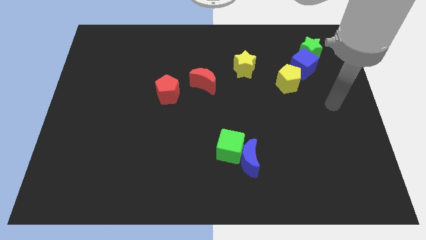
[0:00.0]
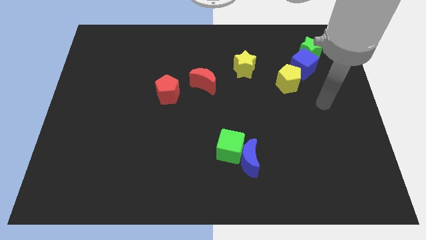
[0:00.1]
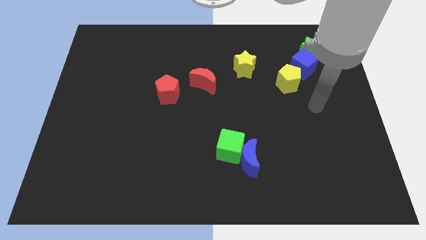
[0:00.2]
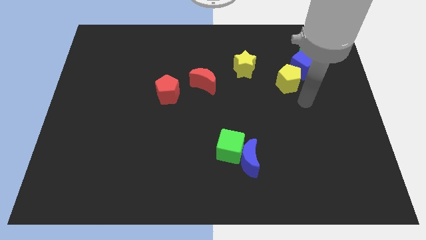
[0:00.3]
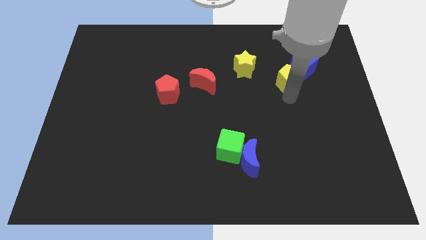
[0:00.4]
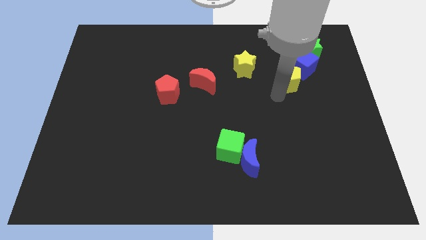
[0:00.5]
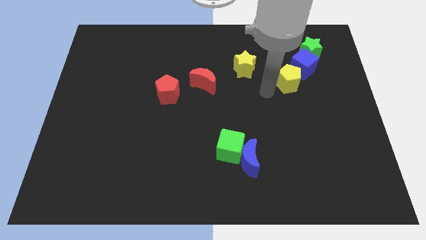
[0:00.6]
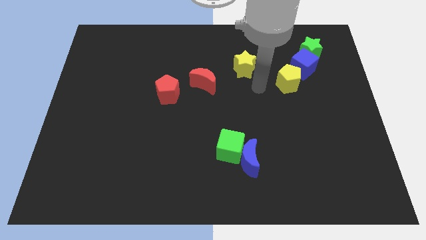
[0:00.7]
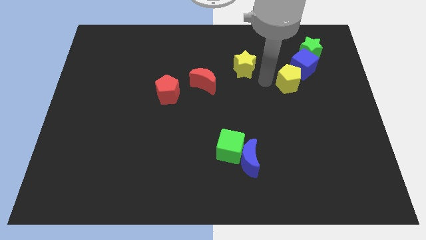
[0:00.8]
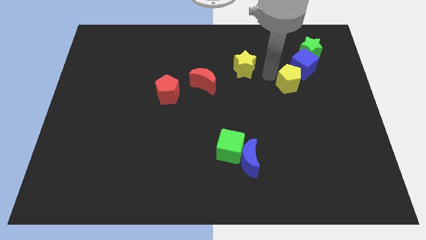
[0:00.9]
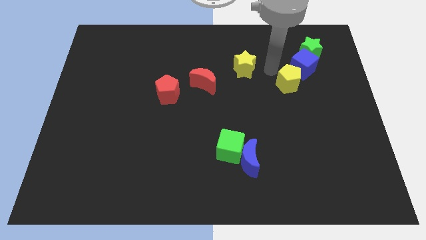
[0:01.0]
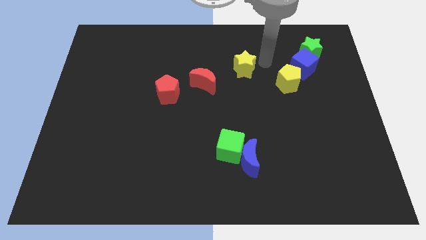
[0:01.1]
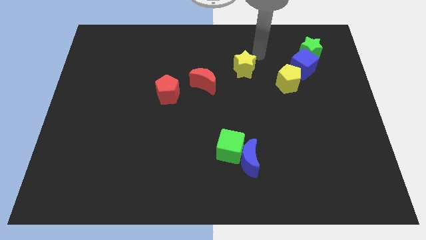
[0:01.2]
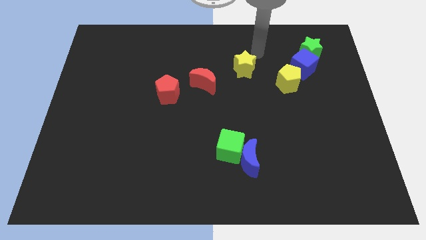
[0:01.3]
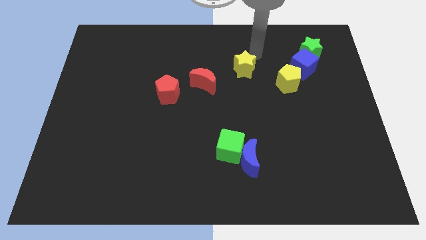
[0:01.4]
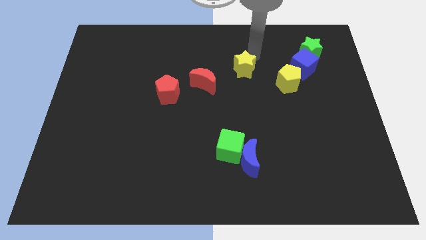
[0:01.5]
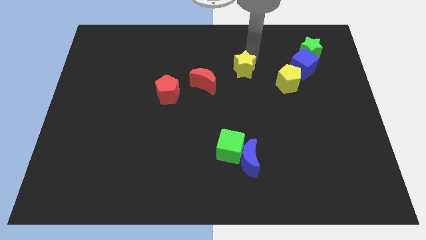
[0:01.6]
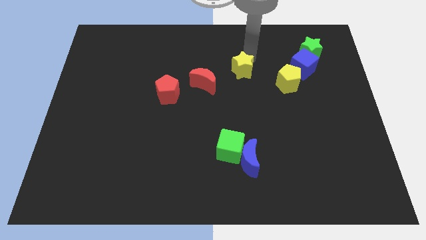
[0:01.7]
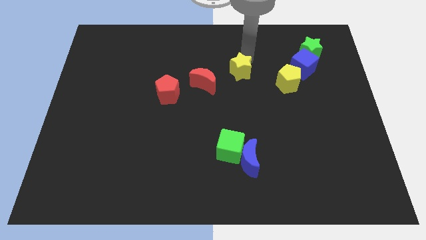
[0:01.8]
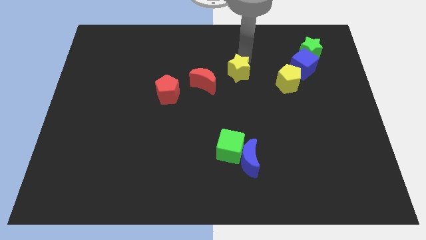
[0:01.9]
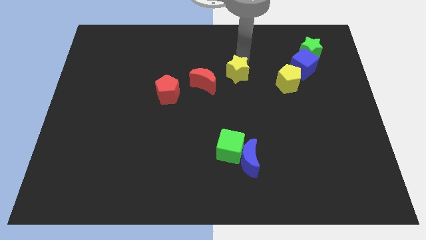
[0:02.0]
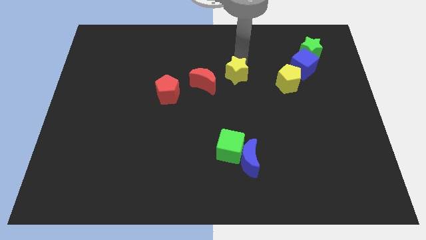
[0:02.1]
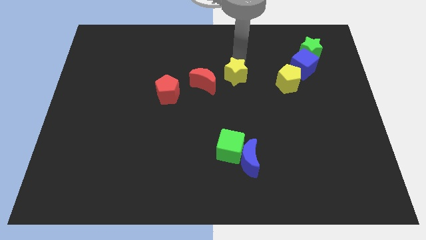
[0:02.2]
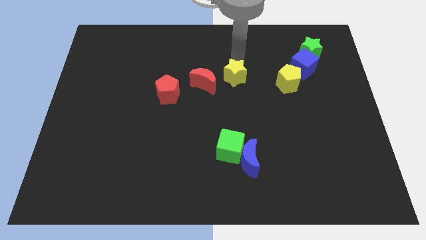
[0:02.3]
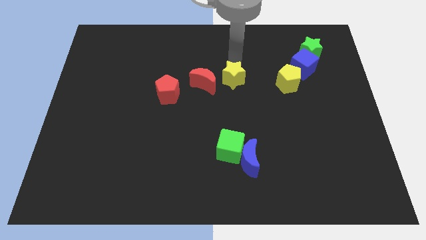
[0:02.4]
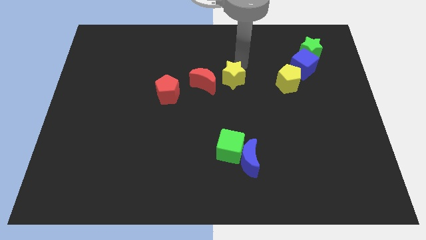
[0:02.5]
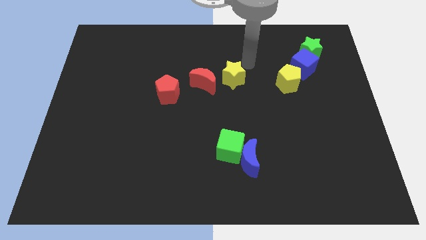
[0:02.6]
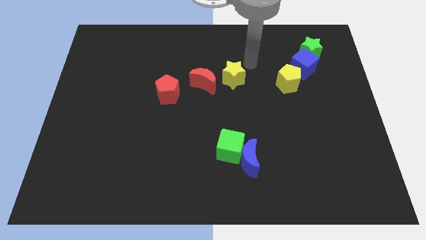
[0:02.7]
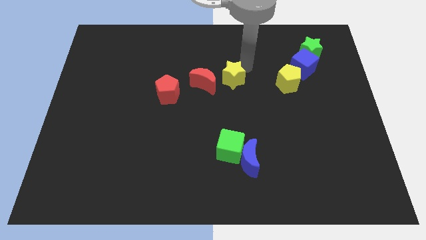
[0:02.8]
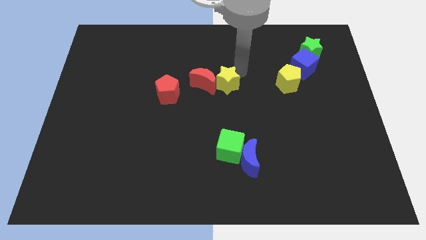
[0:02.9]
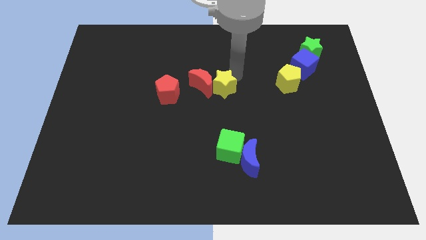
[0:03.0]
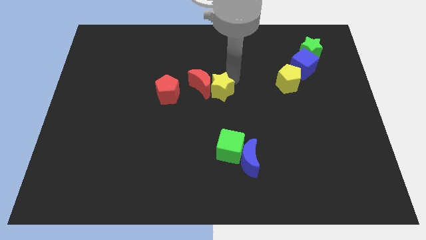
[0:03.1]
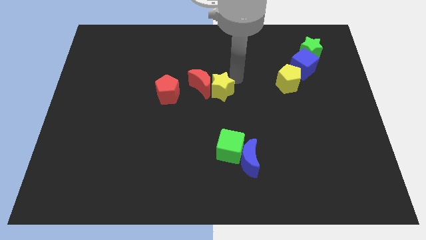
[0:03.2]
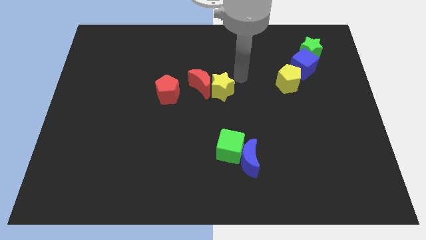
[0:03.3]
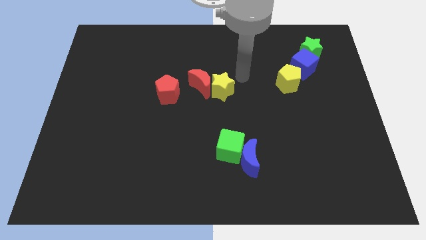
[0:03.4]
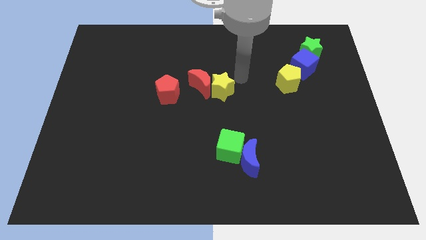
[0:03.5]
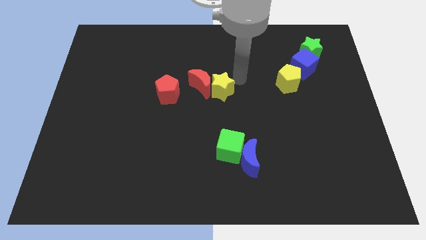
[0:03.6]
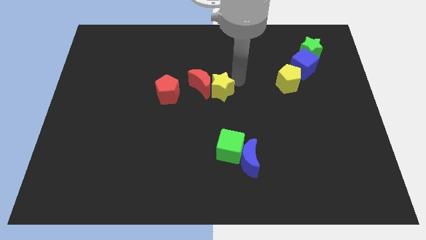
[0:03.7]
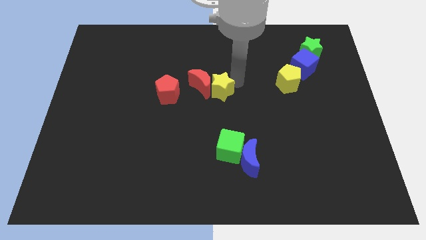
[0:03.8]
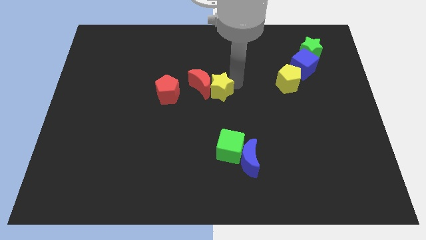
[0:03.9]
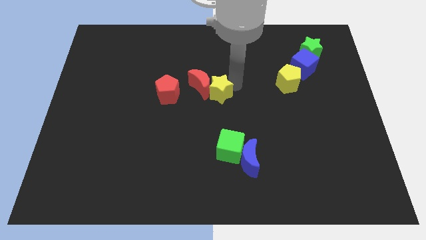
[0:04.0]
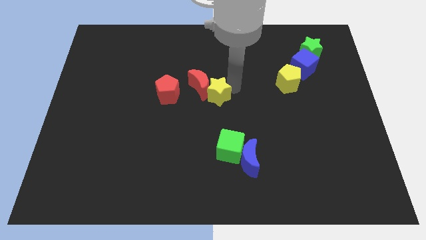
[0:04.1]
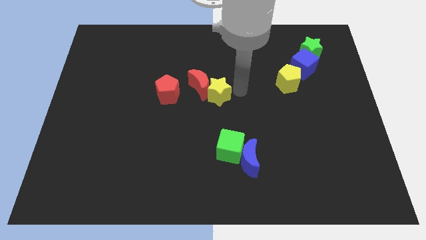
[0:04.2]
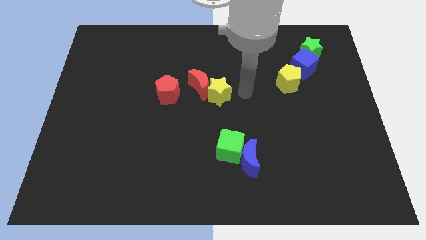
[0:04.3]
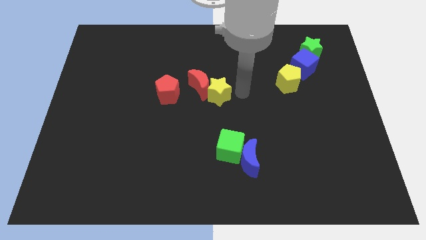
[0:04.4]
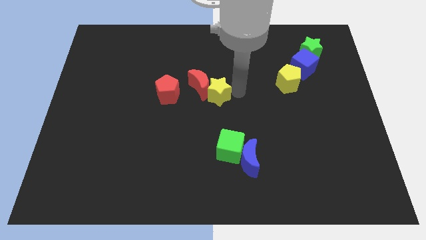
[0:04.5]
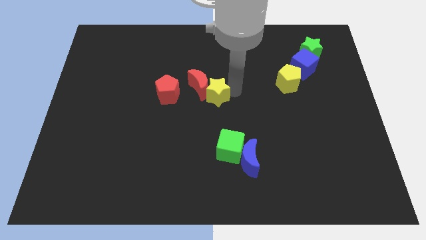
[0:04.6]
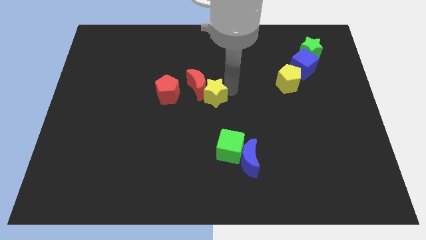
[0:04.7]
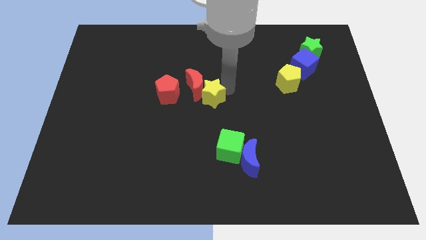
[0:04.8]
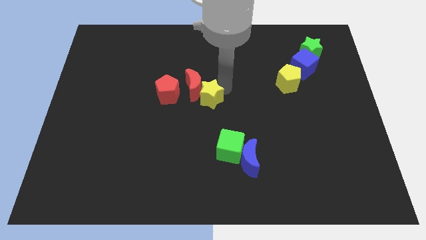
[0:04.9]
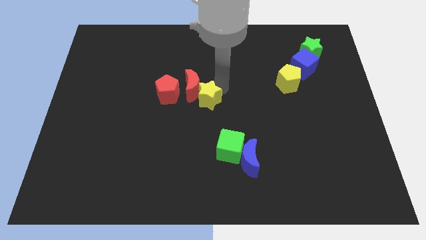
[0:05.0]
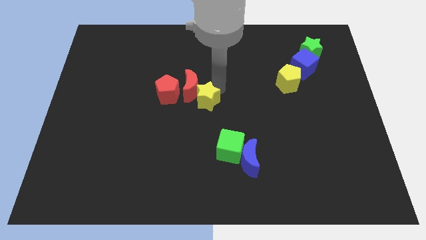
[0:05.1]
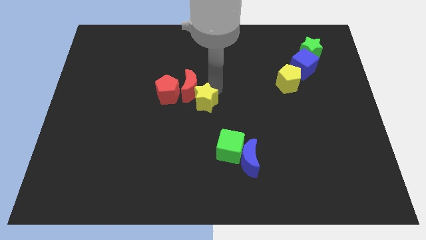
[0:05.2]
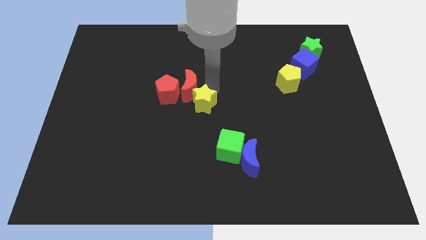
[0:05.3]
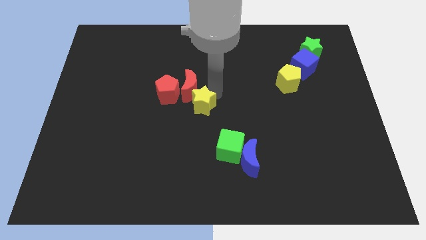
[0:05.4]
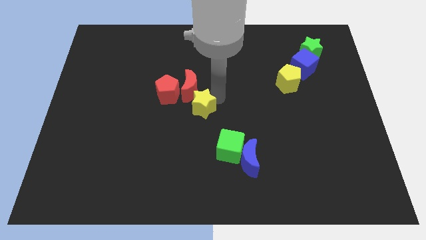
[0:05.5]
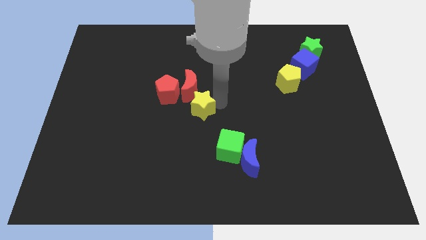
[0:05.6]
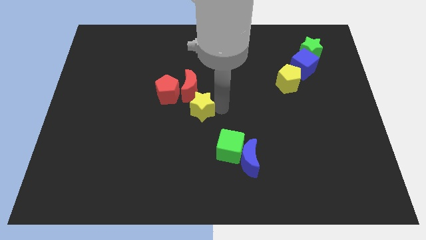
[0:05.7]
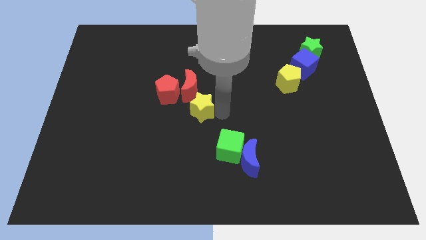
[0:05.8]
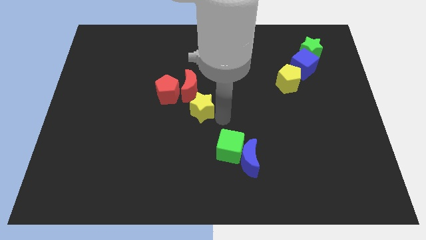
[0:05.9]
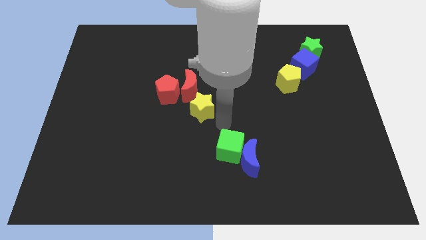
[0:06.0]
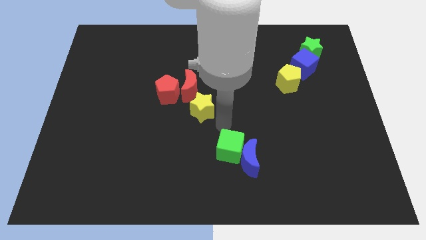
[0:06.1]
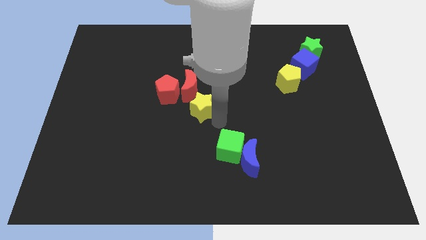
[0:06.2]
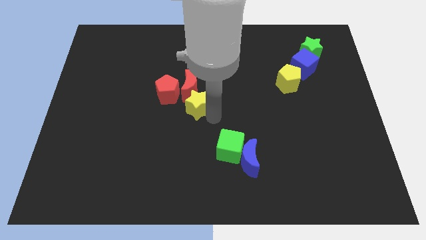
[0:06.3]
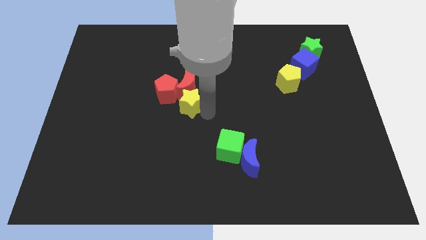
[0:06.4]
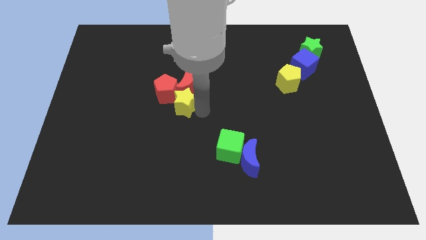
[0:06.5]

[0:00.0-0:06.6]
slide the yellow star next to the red pentagon
